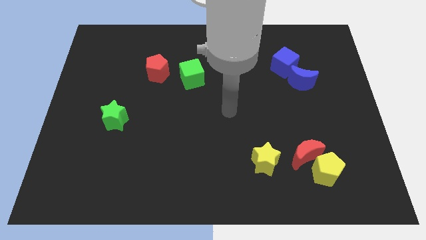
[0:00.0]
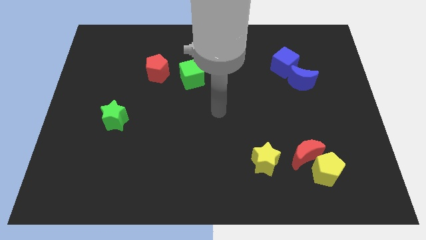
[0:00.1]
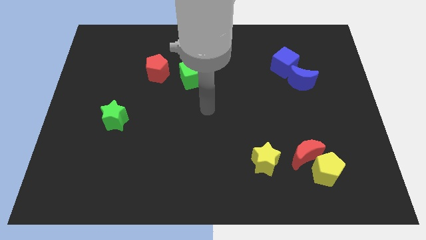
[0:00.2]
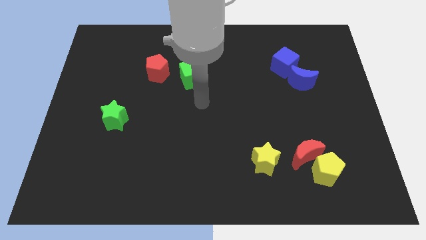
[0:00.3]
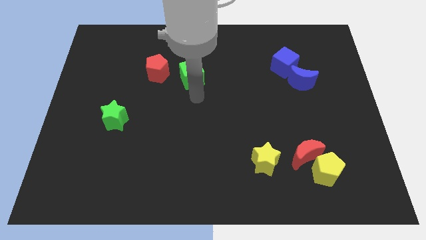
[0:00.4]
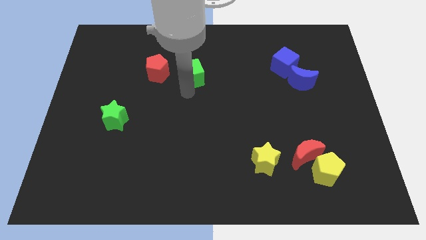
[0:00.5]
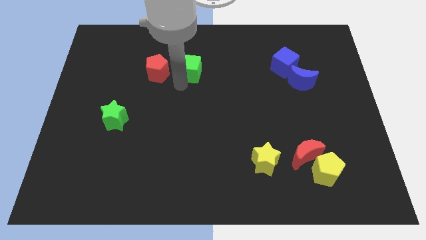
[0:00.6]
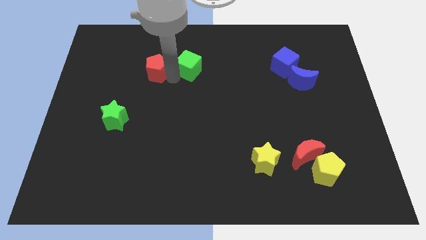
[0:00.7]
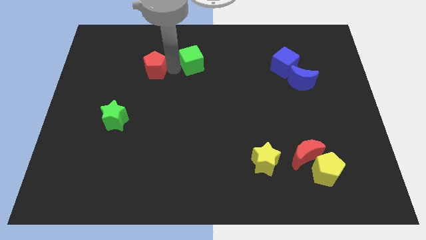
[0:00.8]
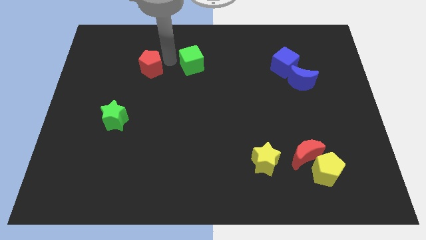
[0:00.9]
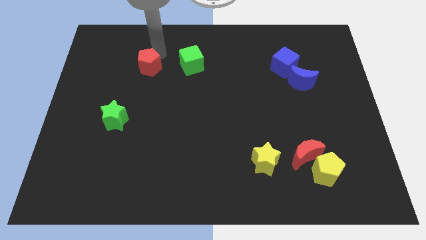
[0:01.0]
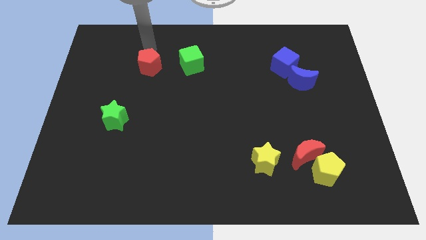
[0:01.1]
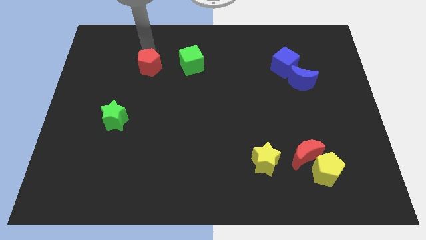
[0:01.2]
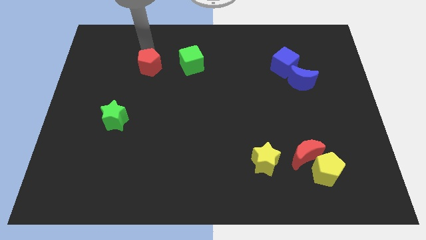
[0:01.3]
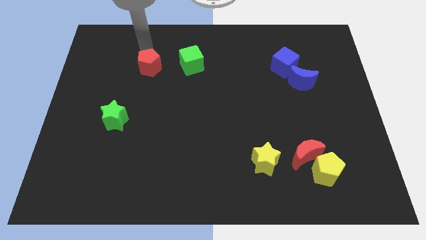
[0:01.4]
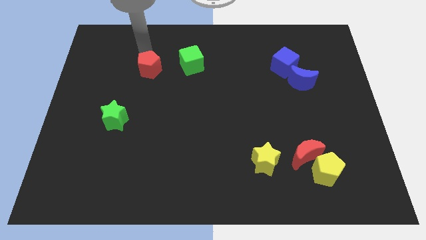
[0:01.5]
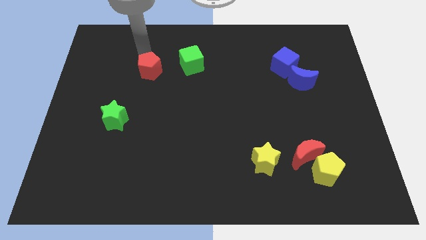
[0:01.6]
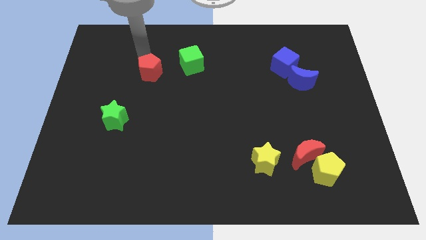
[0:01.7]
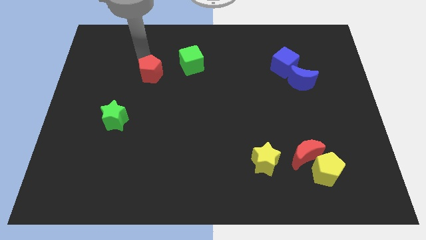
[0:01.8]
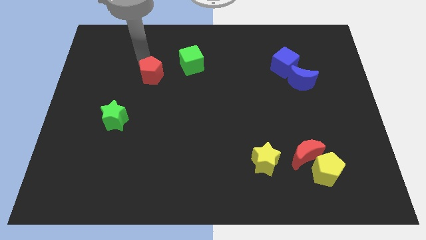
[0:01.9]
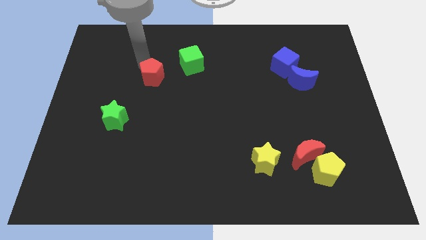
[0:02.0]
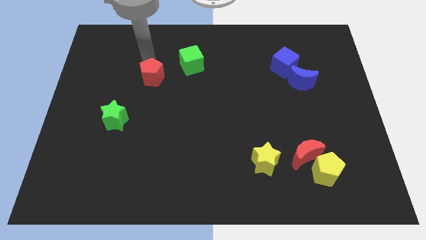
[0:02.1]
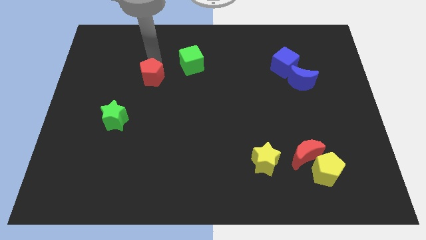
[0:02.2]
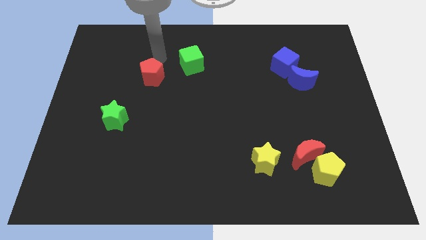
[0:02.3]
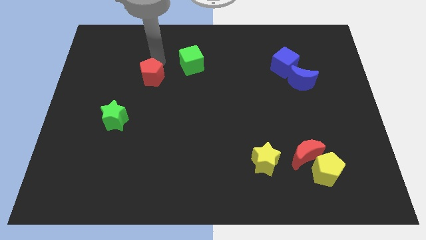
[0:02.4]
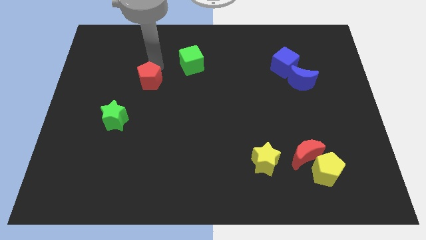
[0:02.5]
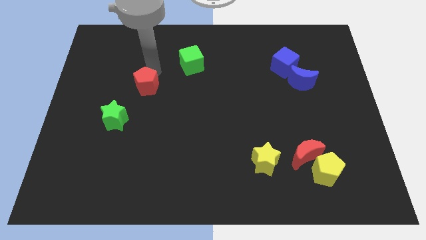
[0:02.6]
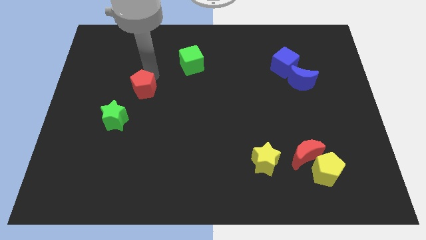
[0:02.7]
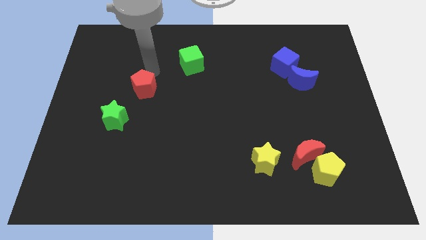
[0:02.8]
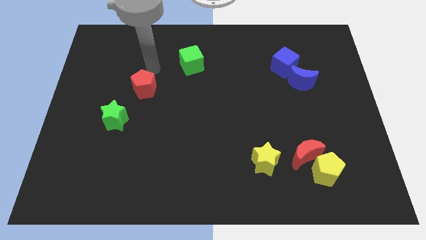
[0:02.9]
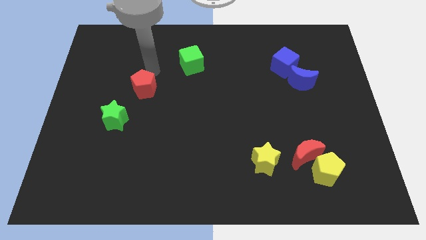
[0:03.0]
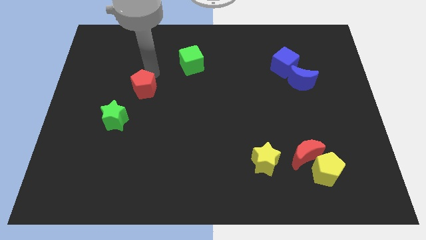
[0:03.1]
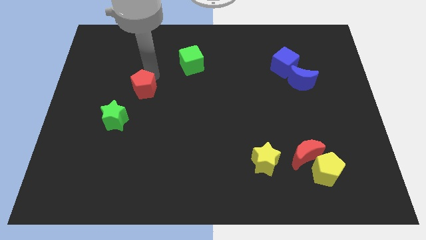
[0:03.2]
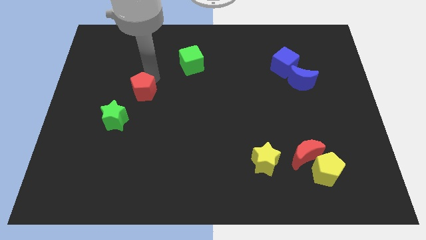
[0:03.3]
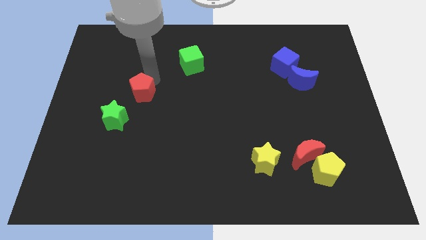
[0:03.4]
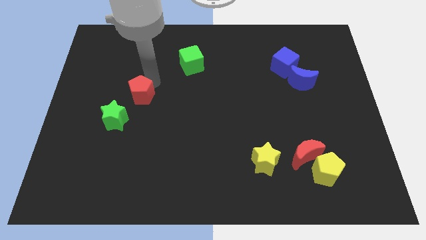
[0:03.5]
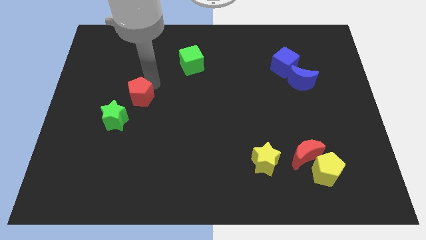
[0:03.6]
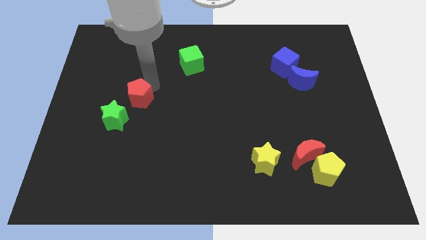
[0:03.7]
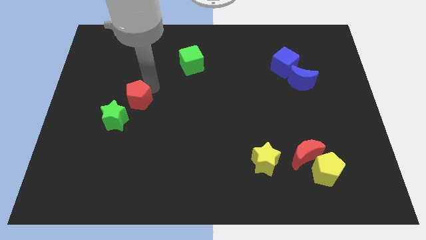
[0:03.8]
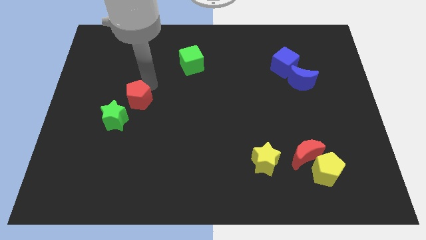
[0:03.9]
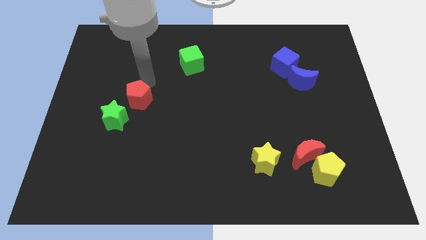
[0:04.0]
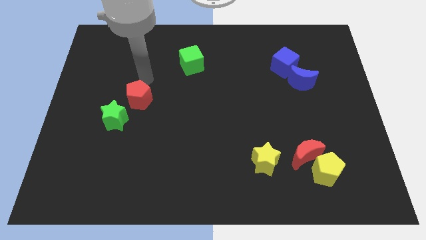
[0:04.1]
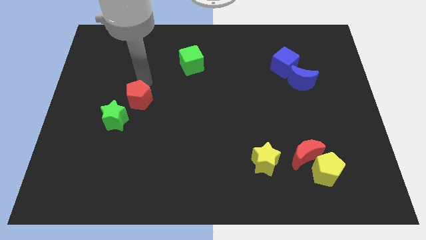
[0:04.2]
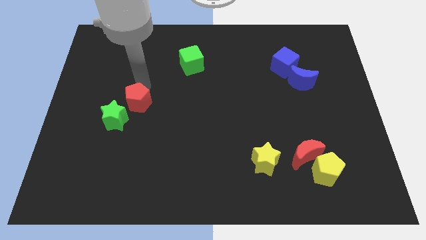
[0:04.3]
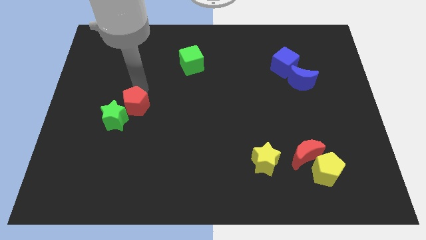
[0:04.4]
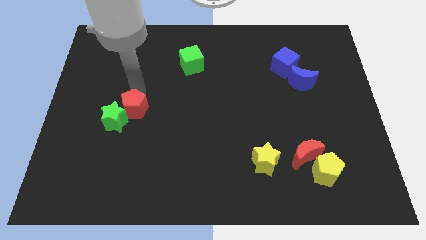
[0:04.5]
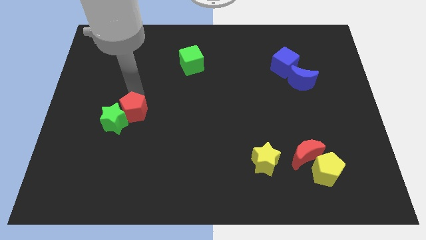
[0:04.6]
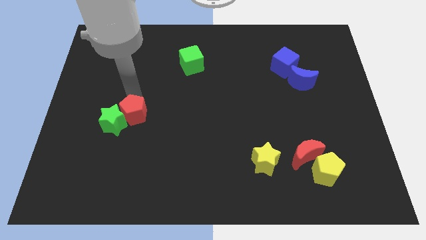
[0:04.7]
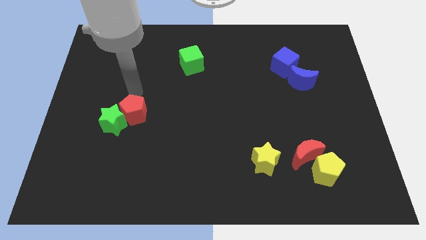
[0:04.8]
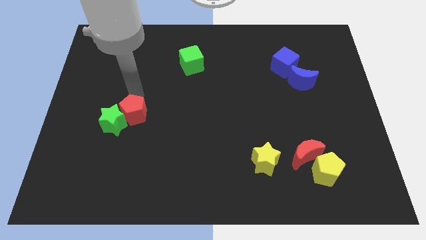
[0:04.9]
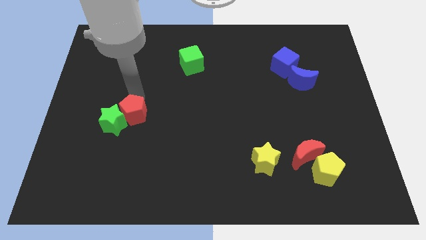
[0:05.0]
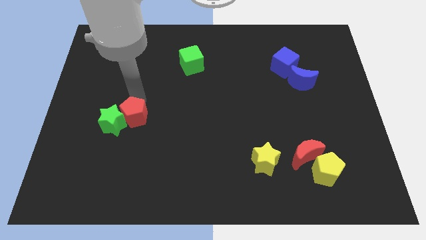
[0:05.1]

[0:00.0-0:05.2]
push the red pentagon diagonally down and to the right of the green star
